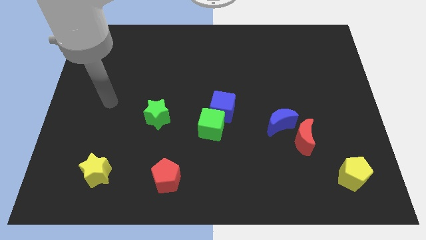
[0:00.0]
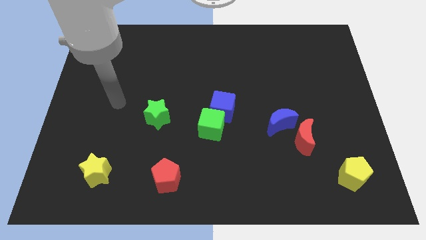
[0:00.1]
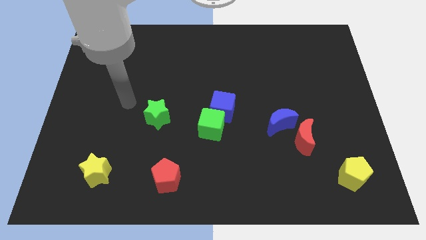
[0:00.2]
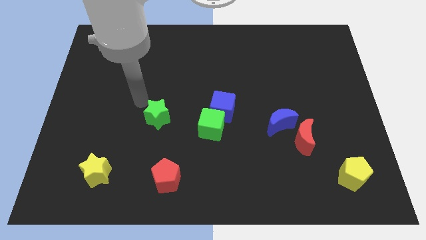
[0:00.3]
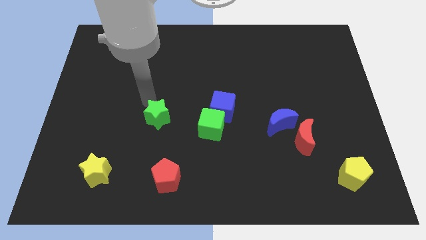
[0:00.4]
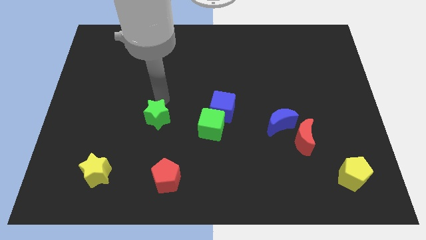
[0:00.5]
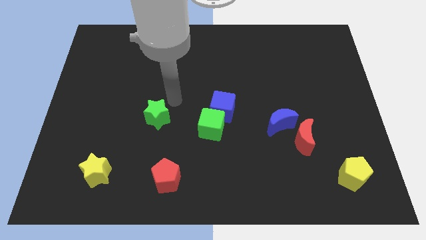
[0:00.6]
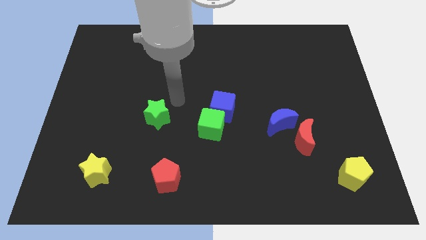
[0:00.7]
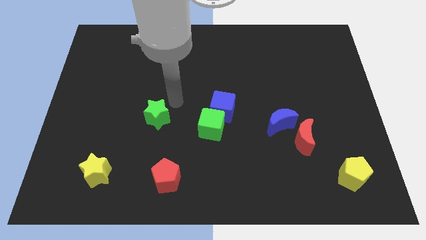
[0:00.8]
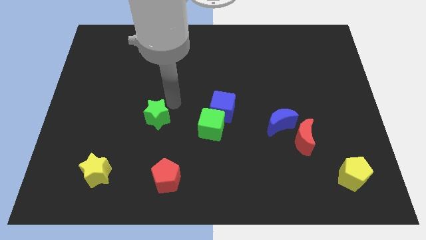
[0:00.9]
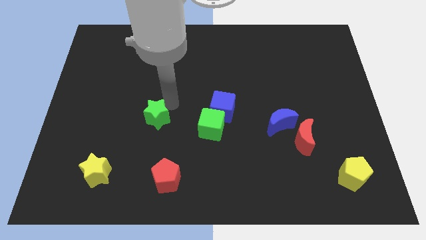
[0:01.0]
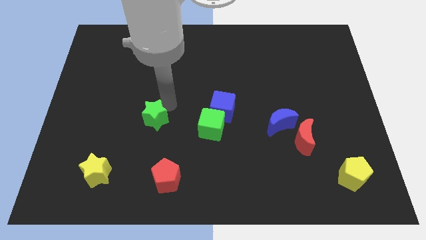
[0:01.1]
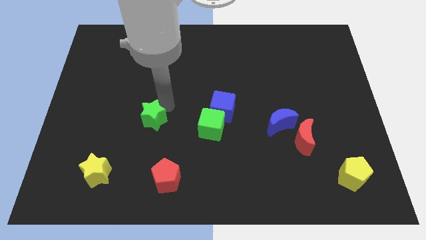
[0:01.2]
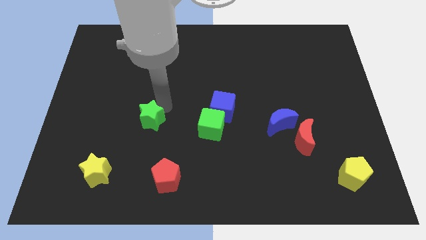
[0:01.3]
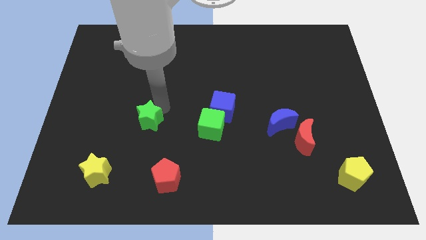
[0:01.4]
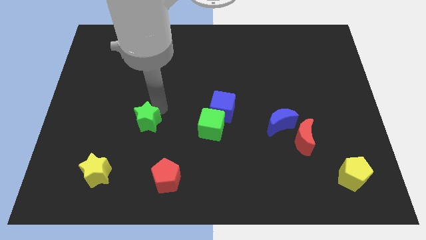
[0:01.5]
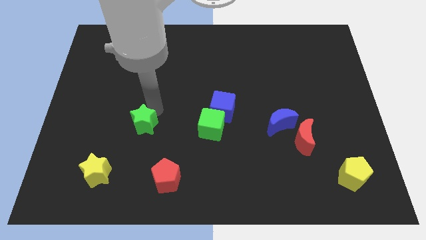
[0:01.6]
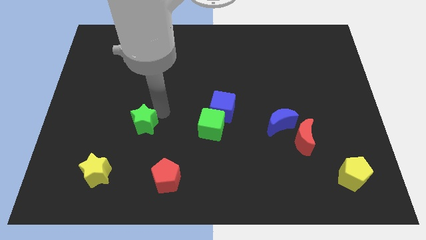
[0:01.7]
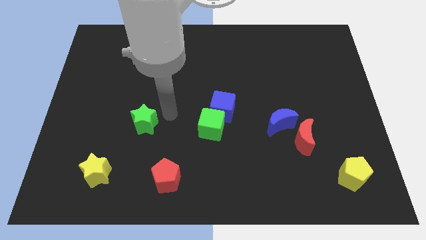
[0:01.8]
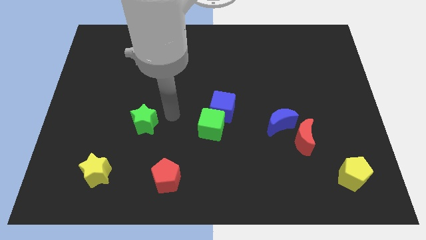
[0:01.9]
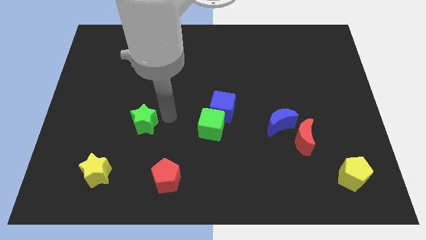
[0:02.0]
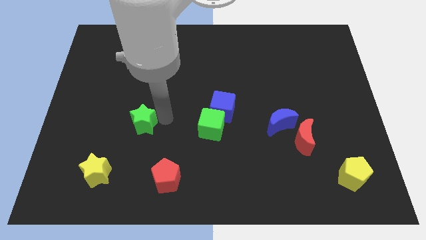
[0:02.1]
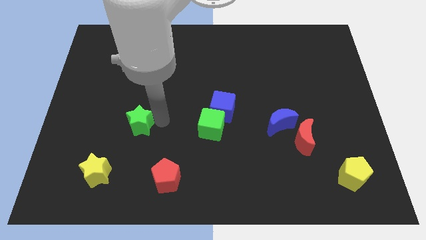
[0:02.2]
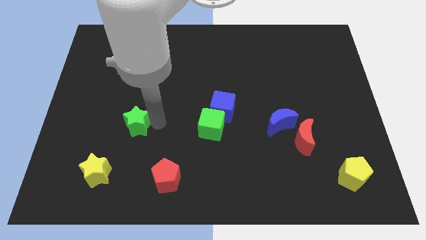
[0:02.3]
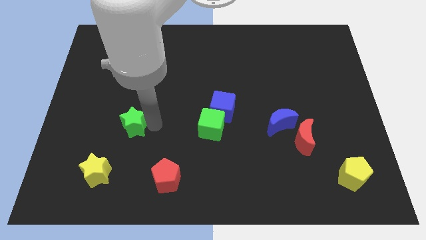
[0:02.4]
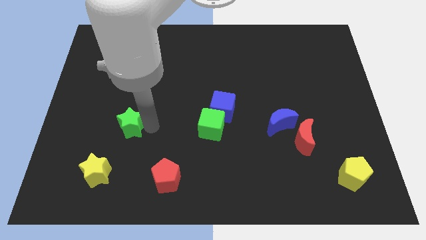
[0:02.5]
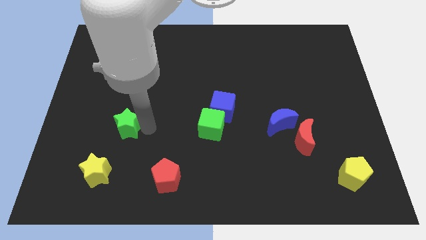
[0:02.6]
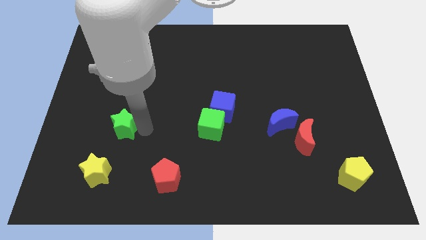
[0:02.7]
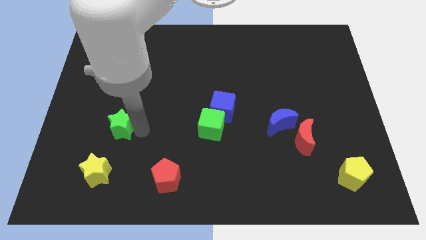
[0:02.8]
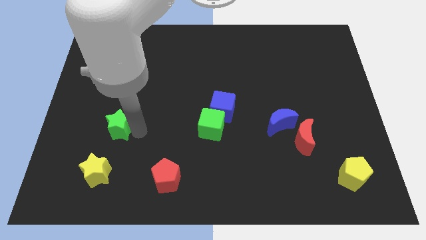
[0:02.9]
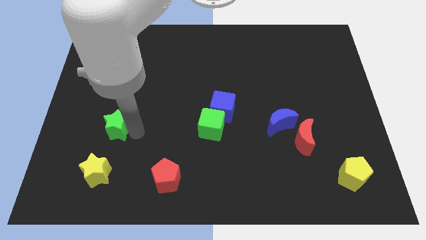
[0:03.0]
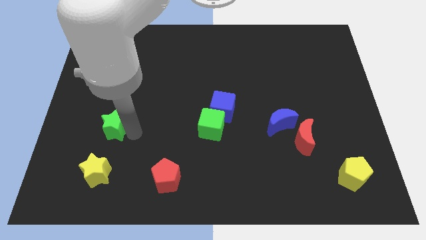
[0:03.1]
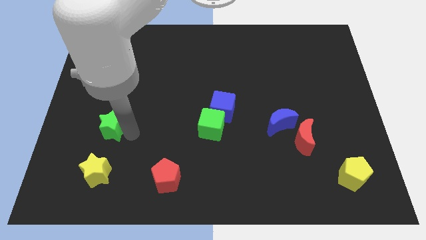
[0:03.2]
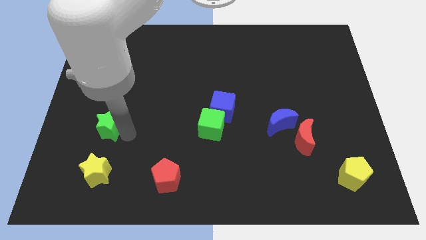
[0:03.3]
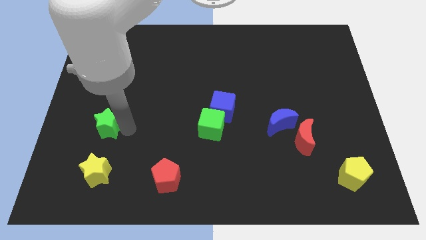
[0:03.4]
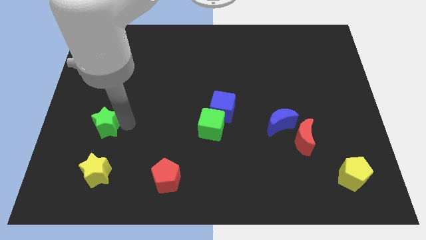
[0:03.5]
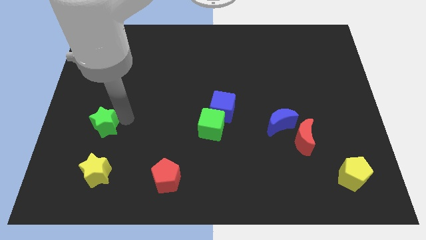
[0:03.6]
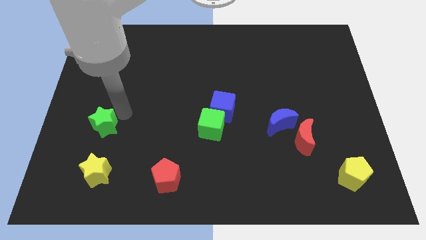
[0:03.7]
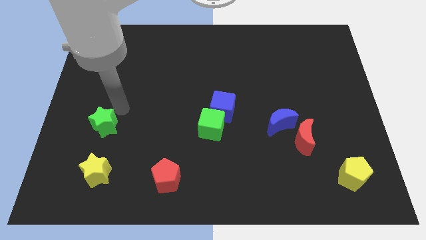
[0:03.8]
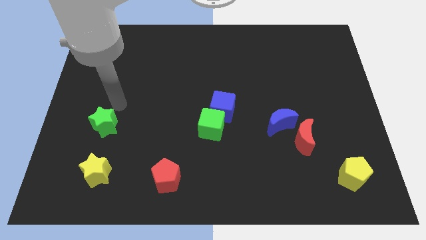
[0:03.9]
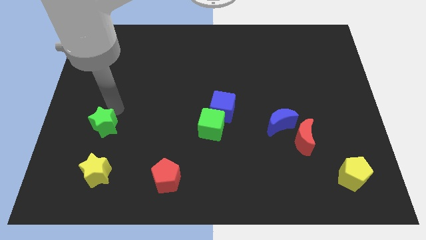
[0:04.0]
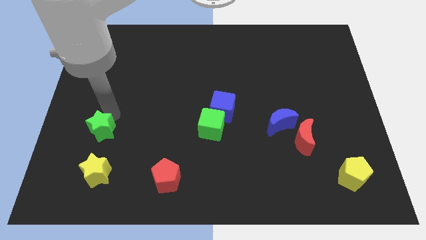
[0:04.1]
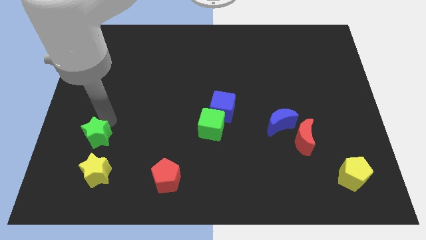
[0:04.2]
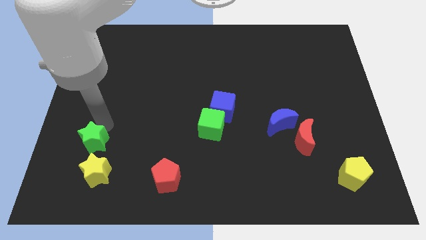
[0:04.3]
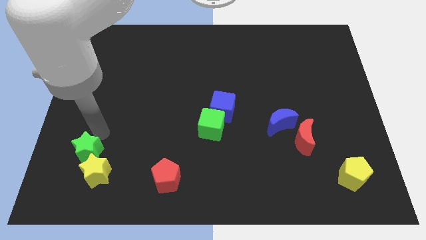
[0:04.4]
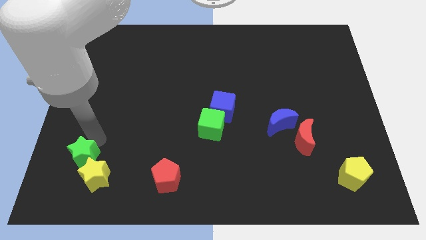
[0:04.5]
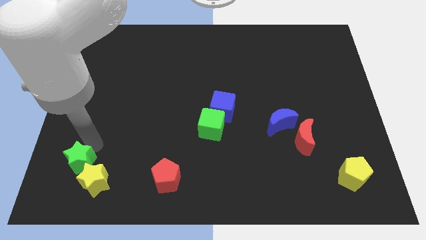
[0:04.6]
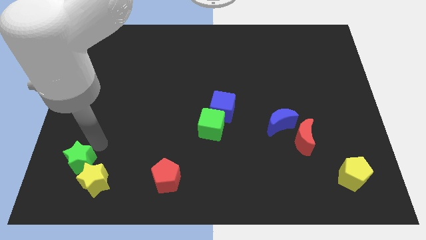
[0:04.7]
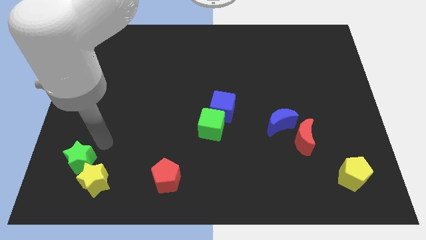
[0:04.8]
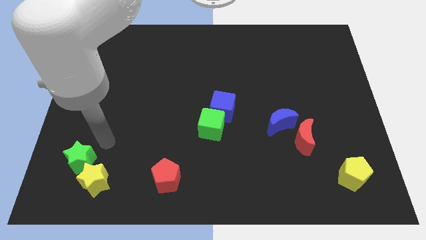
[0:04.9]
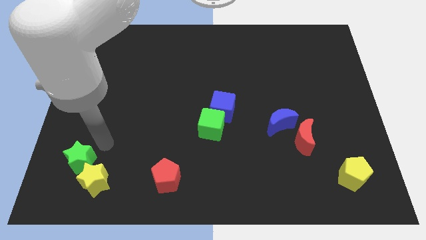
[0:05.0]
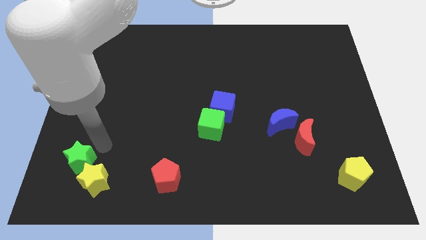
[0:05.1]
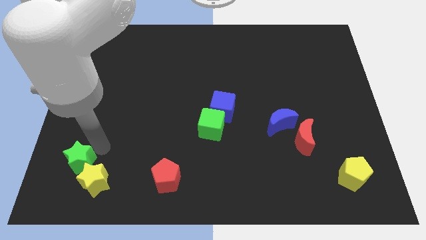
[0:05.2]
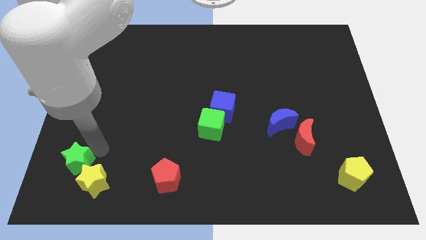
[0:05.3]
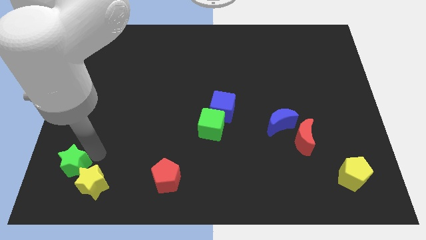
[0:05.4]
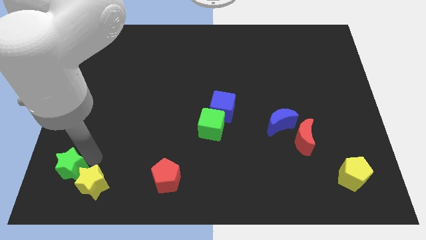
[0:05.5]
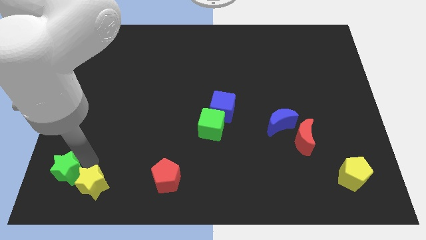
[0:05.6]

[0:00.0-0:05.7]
put the green star to the bottom left

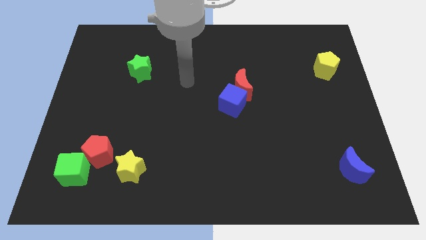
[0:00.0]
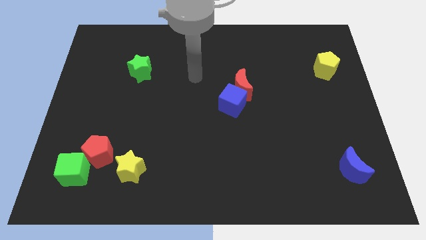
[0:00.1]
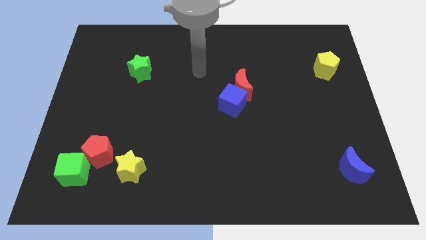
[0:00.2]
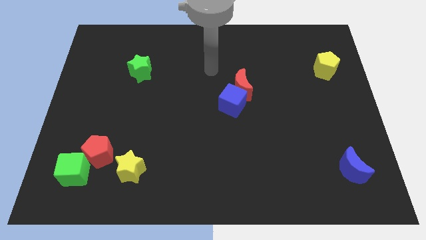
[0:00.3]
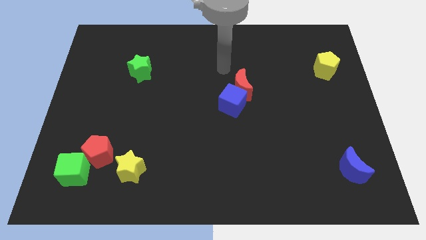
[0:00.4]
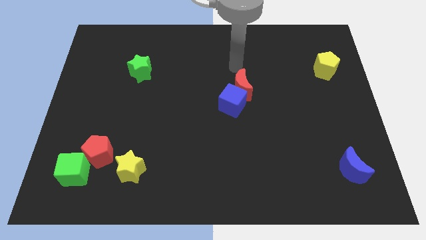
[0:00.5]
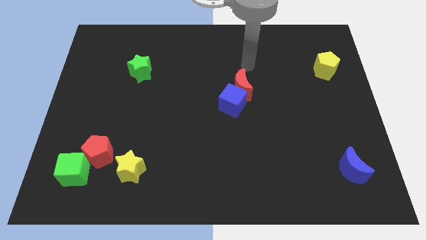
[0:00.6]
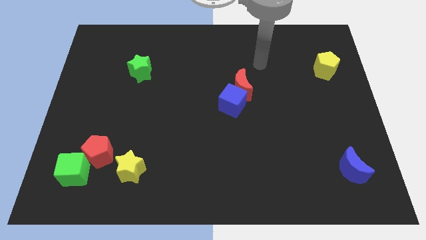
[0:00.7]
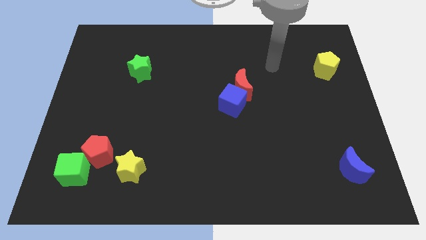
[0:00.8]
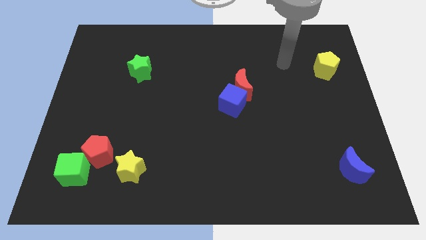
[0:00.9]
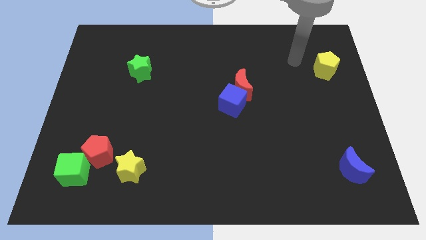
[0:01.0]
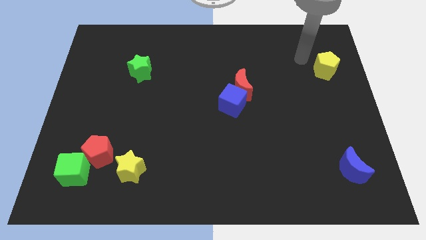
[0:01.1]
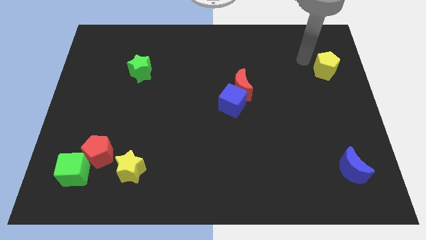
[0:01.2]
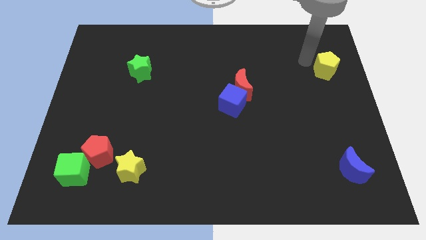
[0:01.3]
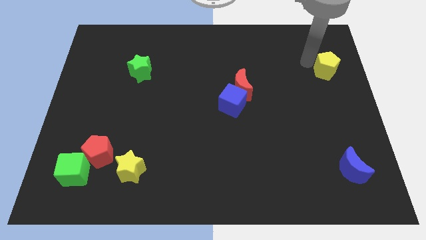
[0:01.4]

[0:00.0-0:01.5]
push the yellow pentagon to the center right
